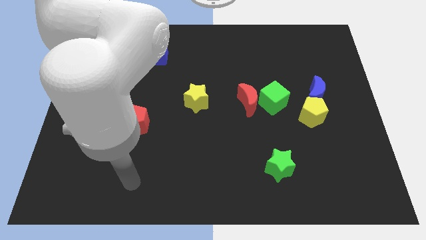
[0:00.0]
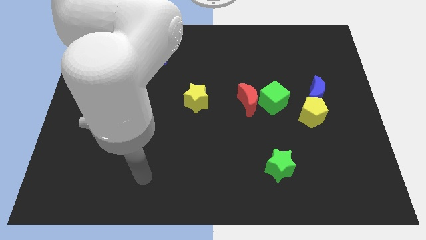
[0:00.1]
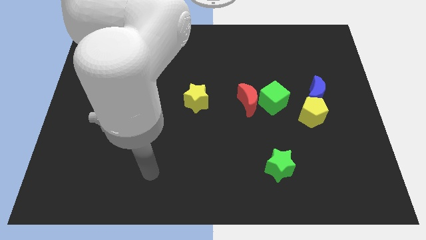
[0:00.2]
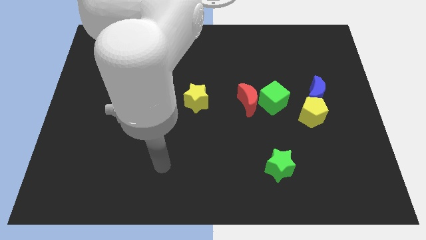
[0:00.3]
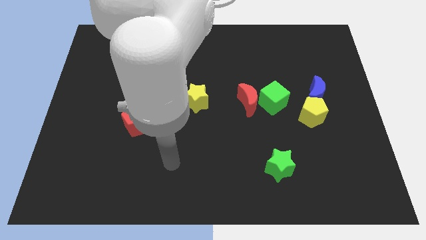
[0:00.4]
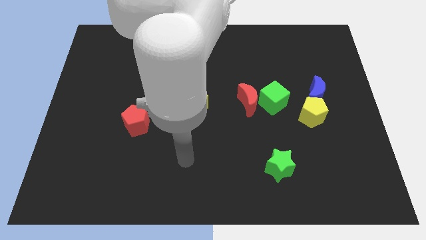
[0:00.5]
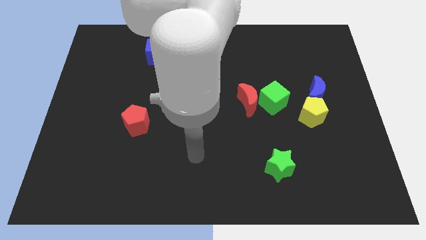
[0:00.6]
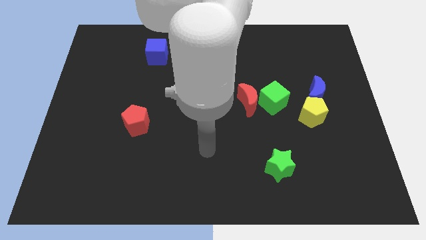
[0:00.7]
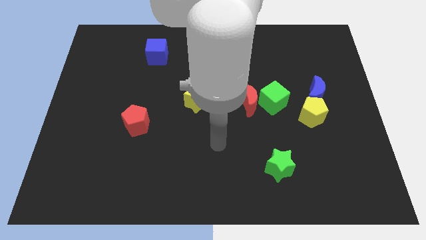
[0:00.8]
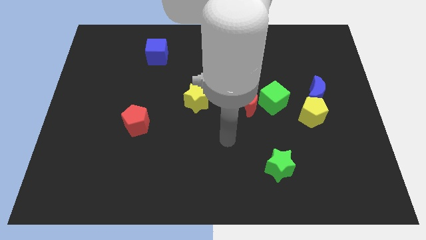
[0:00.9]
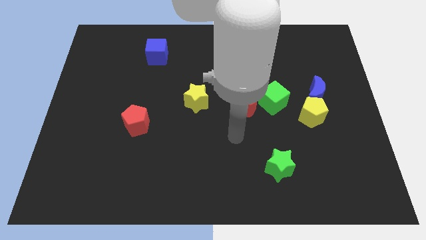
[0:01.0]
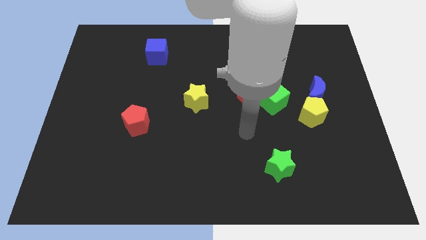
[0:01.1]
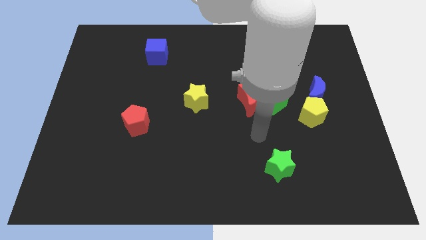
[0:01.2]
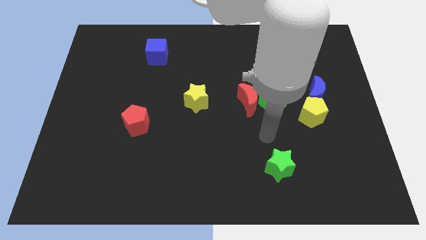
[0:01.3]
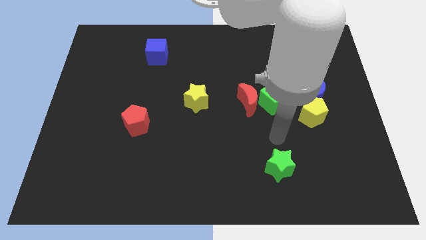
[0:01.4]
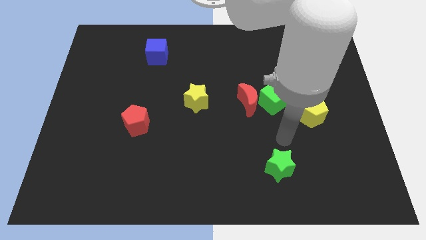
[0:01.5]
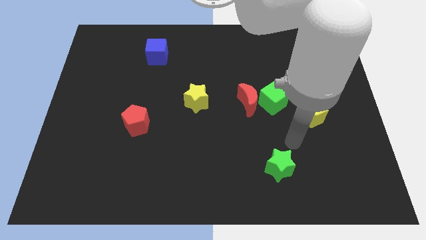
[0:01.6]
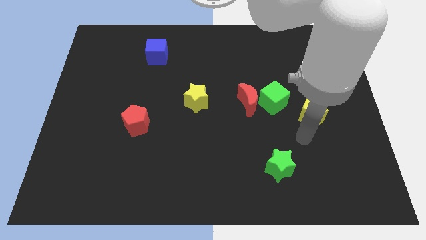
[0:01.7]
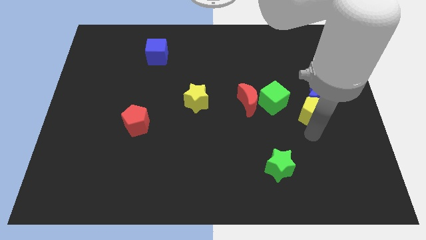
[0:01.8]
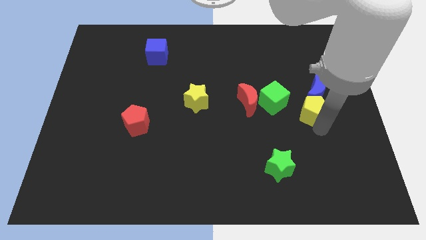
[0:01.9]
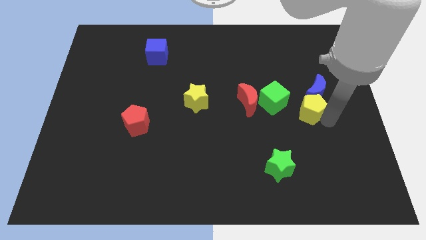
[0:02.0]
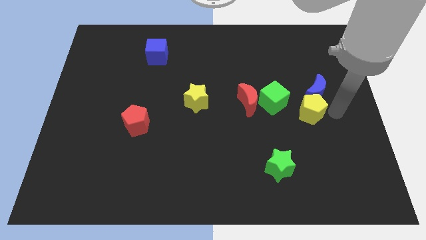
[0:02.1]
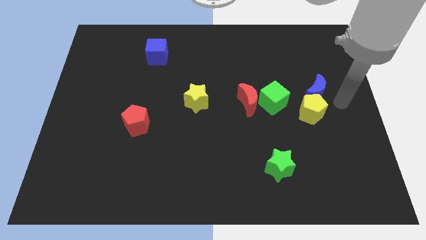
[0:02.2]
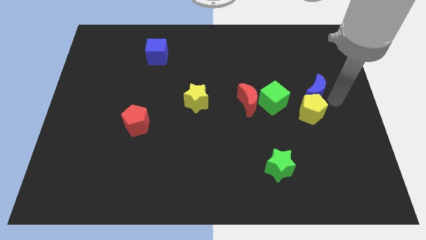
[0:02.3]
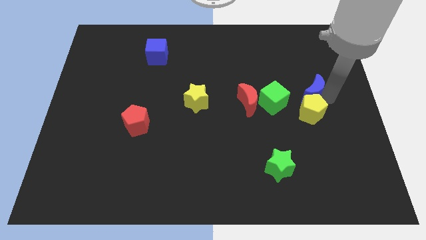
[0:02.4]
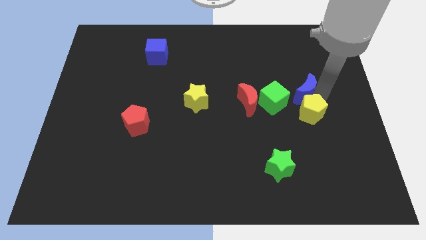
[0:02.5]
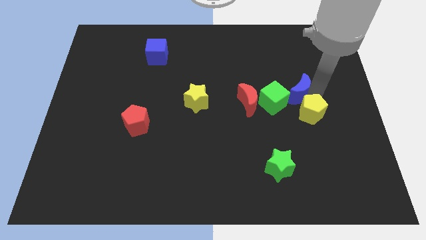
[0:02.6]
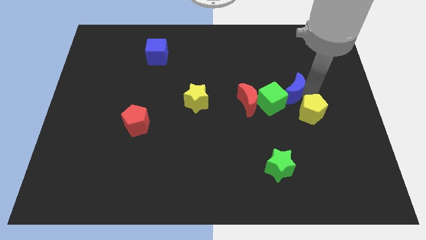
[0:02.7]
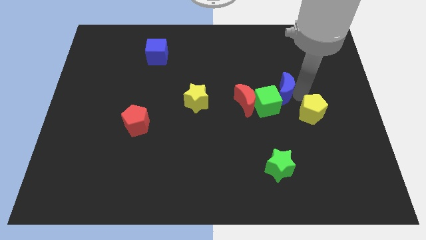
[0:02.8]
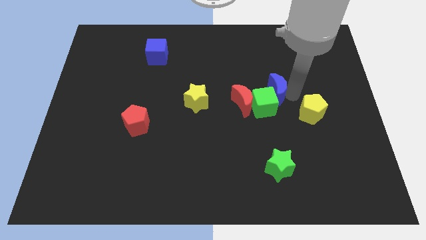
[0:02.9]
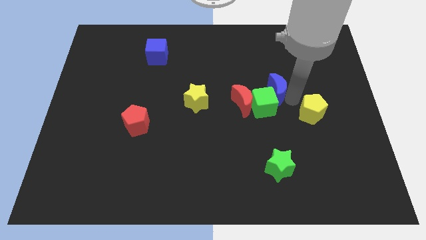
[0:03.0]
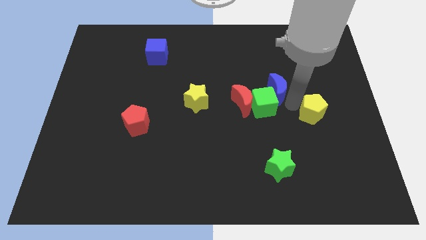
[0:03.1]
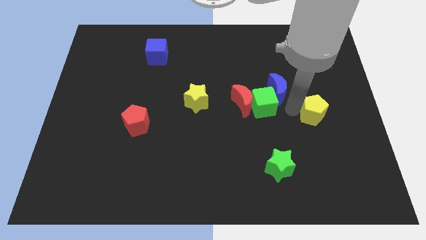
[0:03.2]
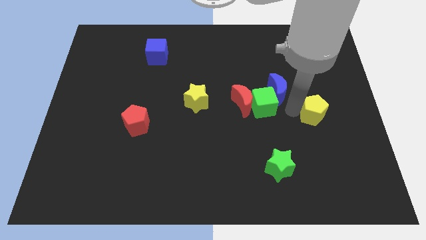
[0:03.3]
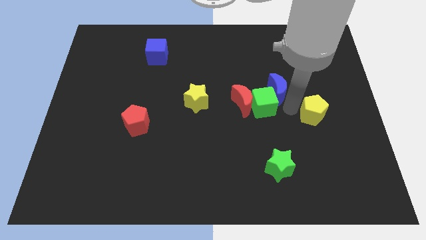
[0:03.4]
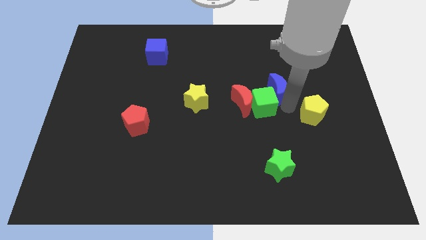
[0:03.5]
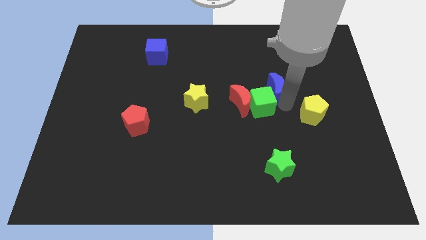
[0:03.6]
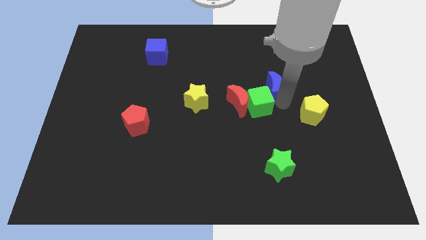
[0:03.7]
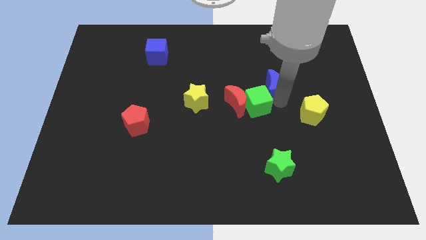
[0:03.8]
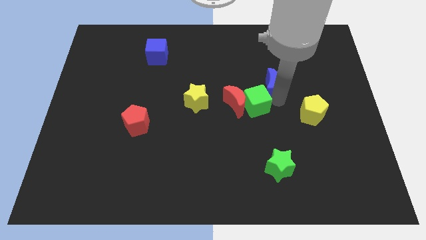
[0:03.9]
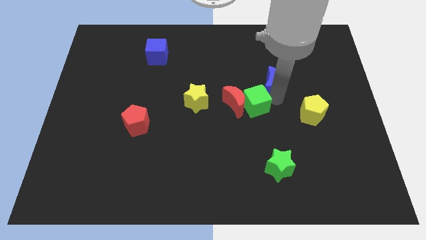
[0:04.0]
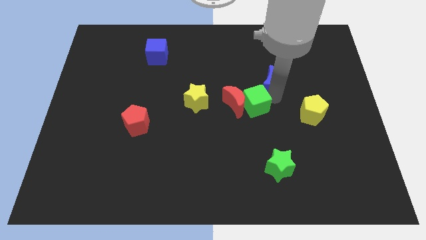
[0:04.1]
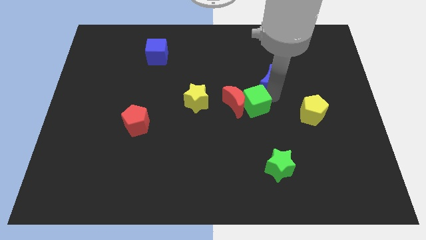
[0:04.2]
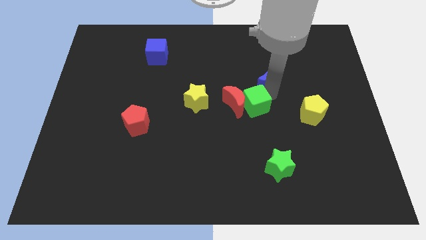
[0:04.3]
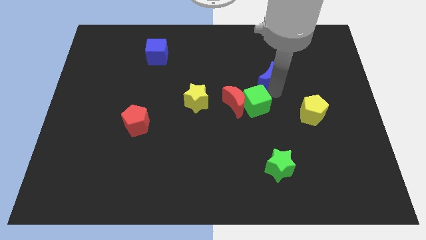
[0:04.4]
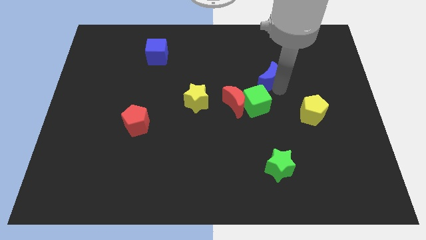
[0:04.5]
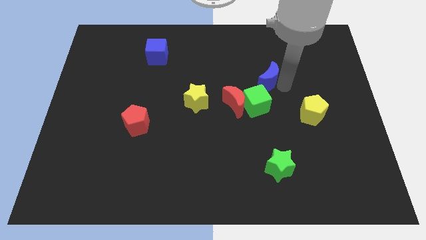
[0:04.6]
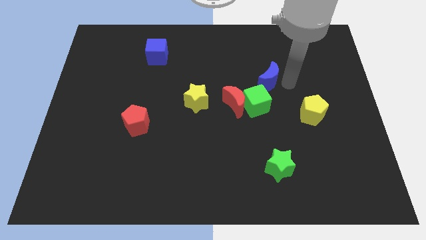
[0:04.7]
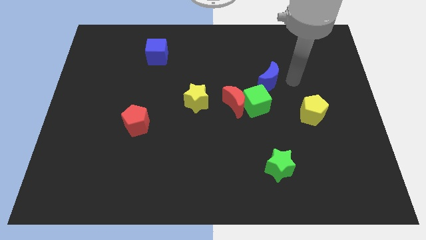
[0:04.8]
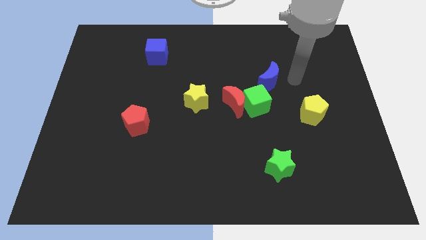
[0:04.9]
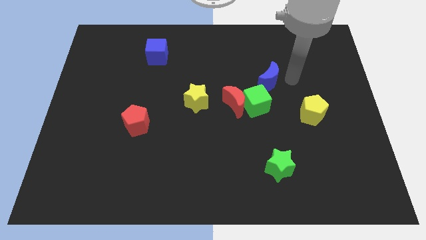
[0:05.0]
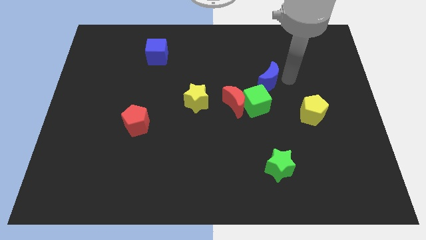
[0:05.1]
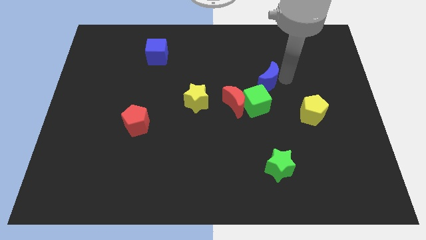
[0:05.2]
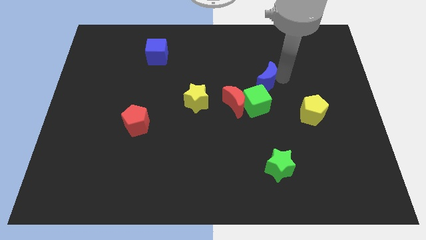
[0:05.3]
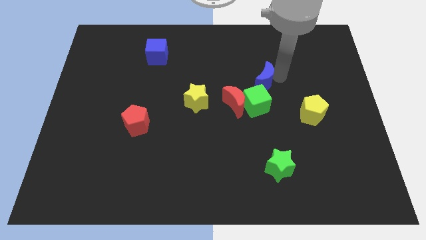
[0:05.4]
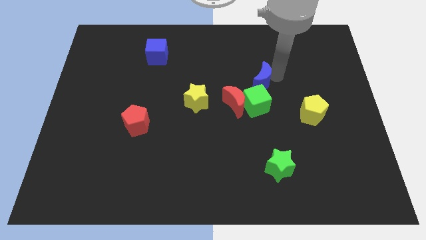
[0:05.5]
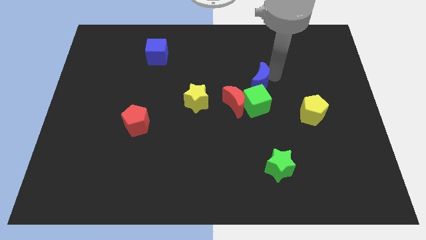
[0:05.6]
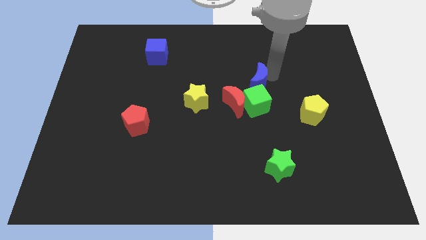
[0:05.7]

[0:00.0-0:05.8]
push the blue moon to the middle
